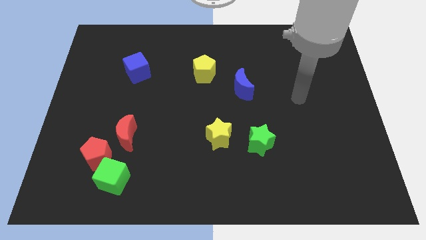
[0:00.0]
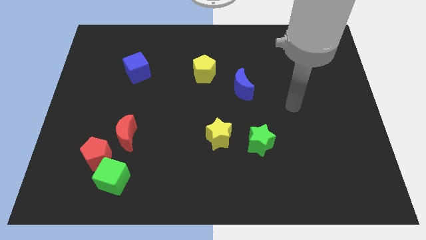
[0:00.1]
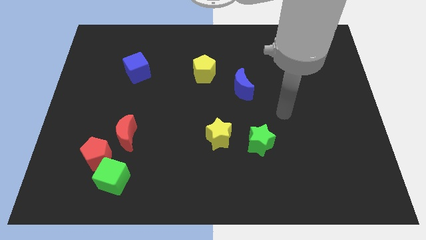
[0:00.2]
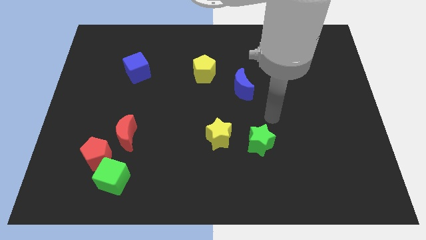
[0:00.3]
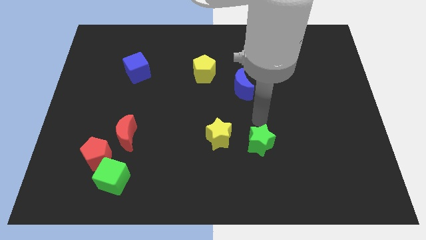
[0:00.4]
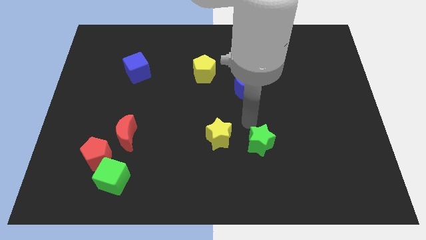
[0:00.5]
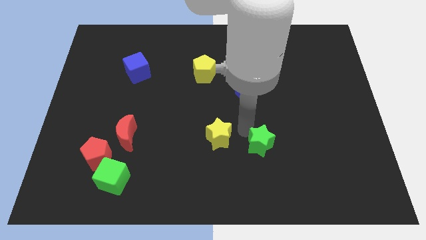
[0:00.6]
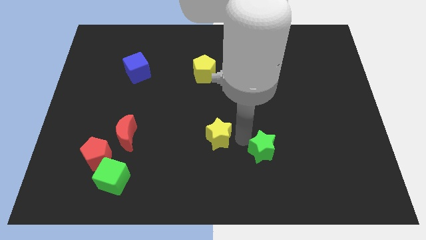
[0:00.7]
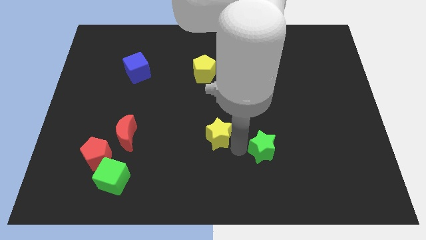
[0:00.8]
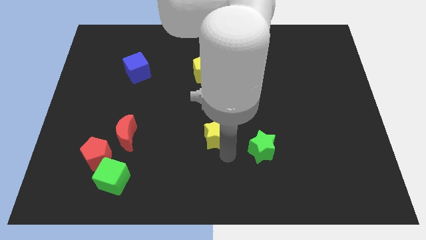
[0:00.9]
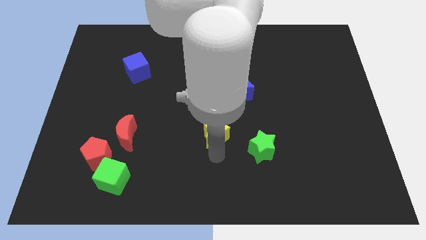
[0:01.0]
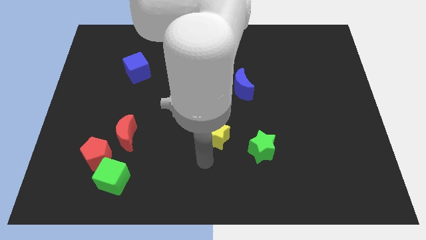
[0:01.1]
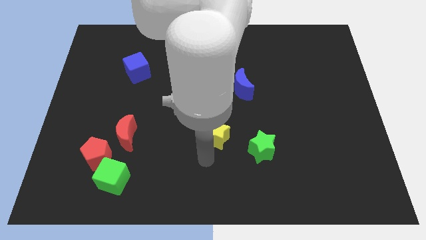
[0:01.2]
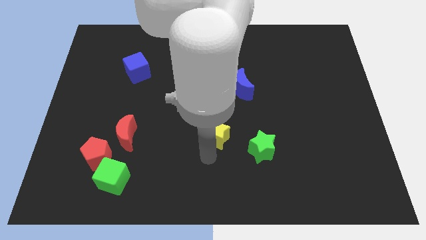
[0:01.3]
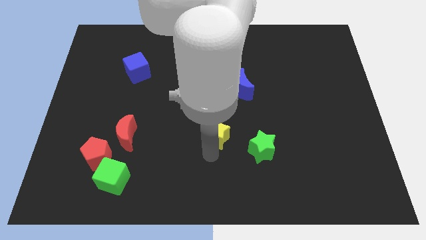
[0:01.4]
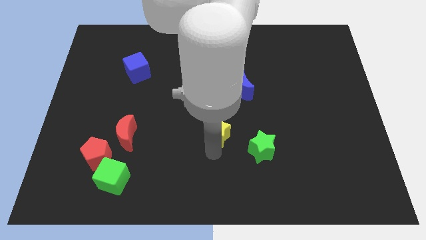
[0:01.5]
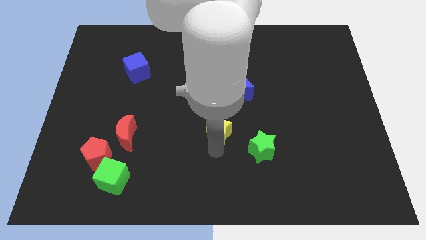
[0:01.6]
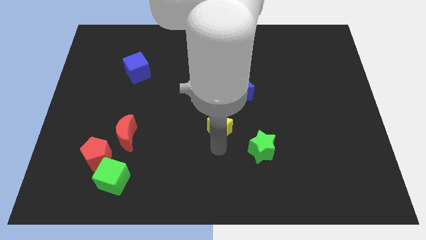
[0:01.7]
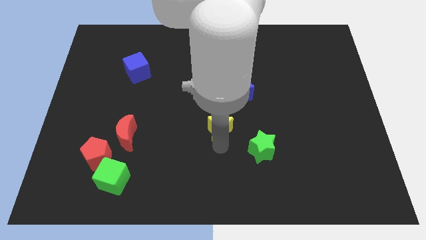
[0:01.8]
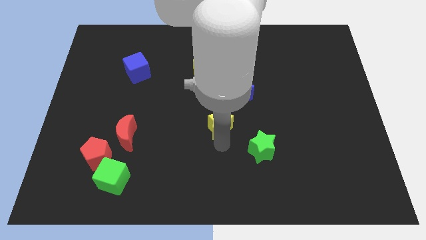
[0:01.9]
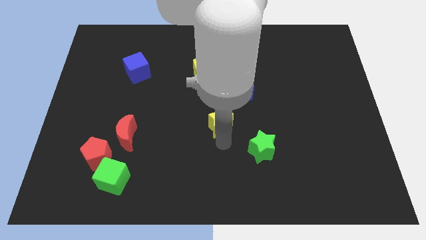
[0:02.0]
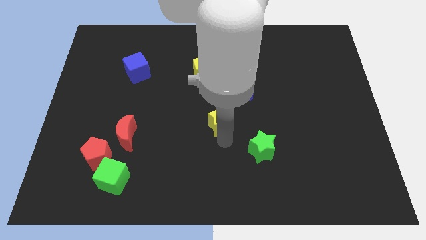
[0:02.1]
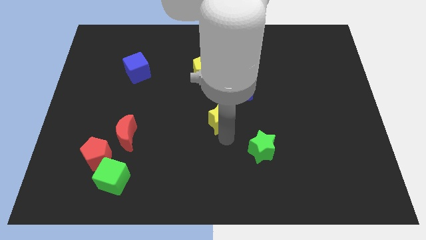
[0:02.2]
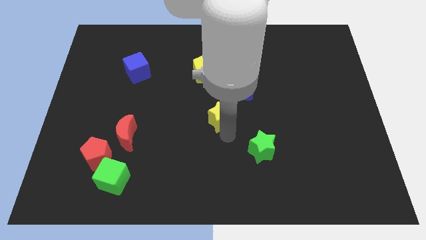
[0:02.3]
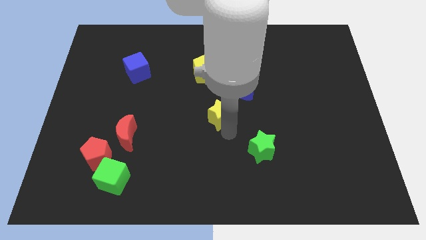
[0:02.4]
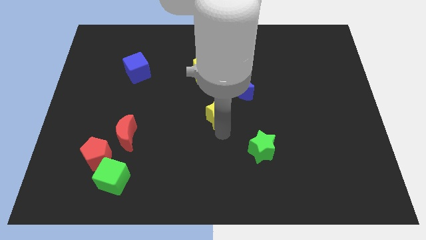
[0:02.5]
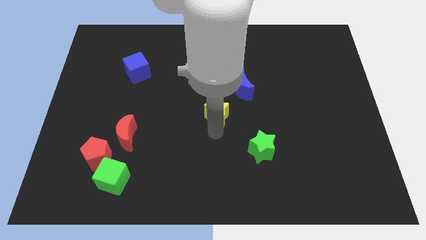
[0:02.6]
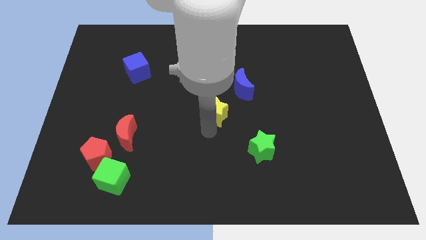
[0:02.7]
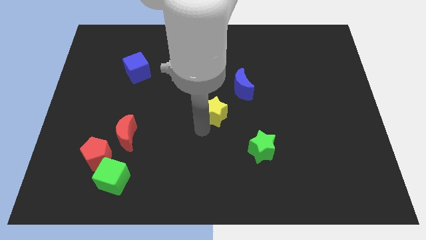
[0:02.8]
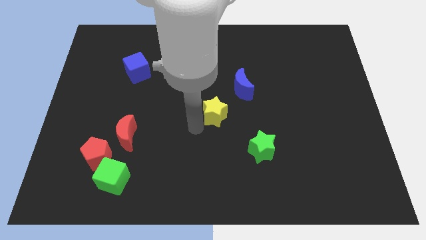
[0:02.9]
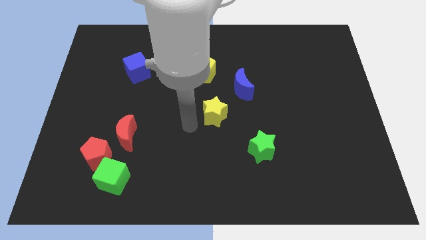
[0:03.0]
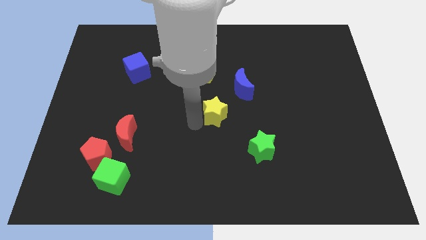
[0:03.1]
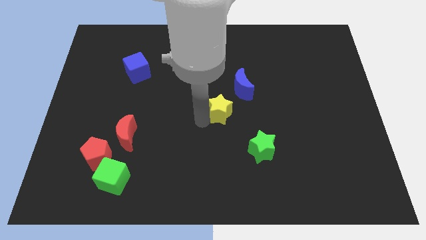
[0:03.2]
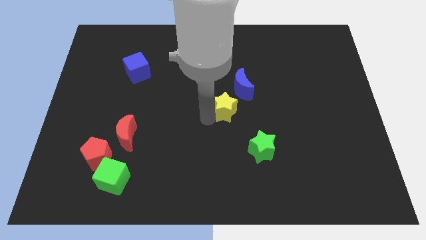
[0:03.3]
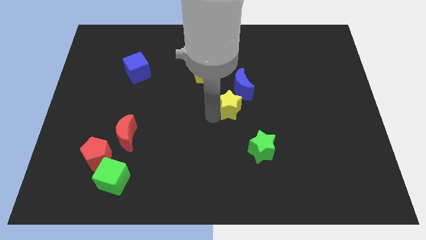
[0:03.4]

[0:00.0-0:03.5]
slightly move the yellow star upwards and to the right

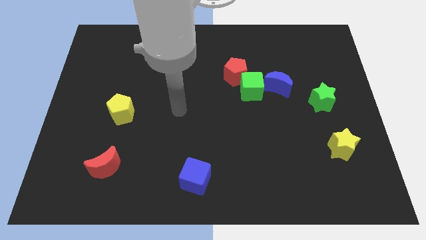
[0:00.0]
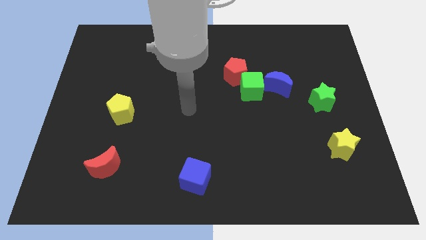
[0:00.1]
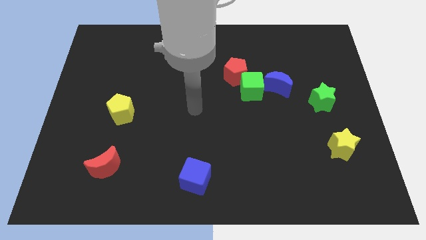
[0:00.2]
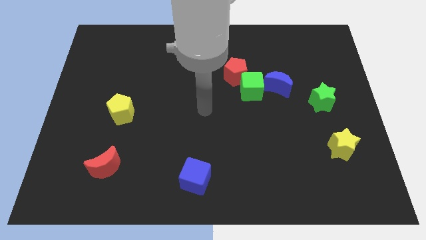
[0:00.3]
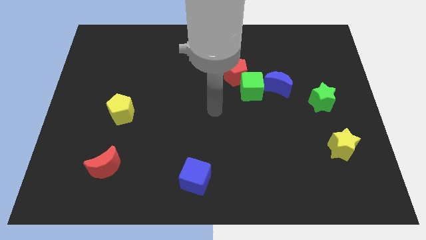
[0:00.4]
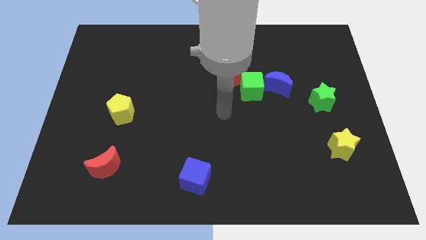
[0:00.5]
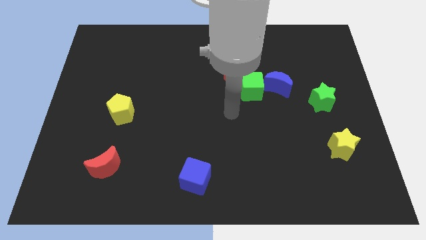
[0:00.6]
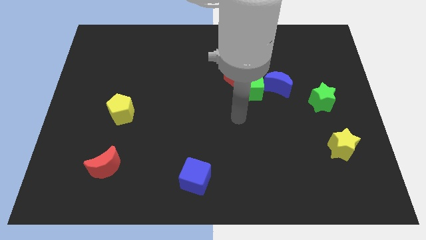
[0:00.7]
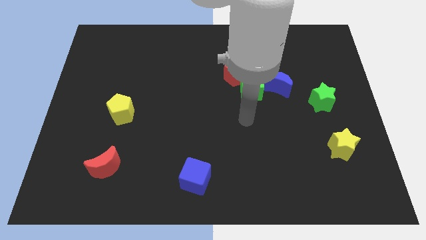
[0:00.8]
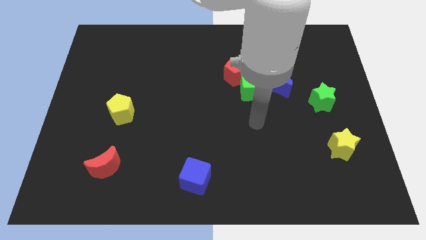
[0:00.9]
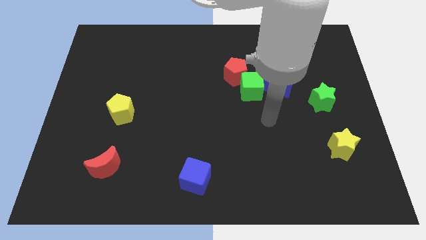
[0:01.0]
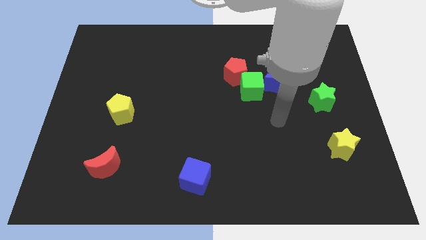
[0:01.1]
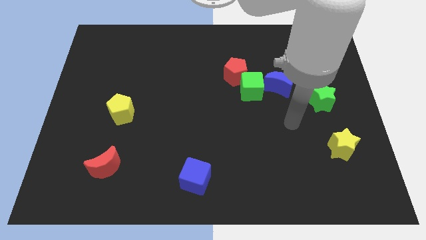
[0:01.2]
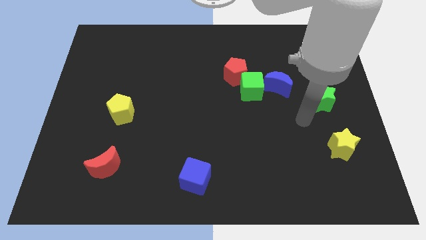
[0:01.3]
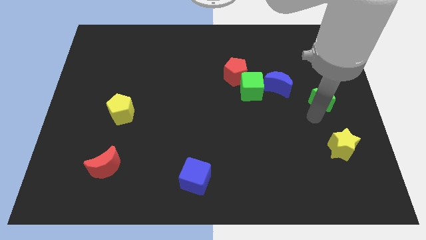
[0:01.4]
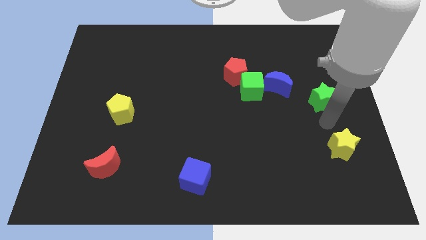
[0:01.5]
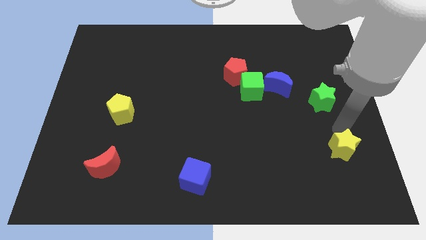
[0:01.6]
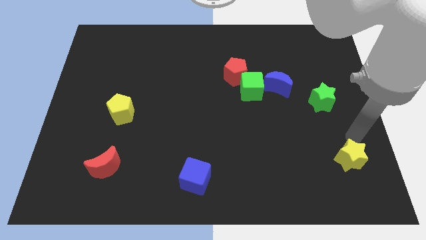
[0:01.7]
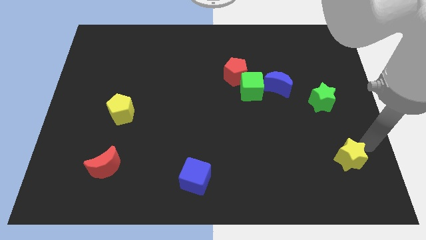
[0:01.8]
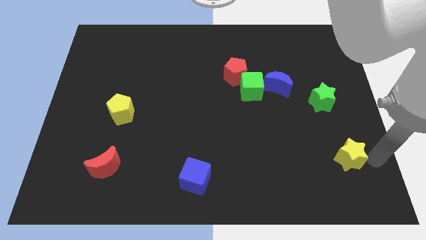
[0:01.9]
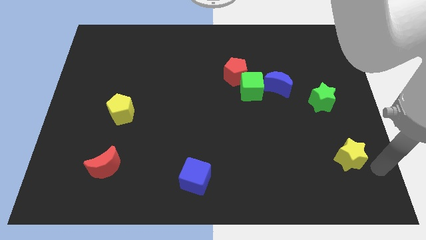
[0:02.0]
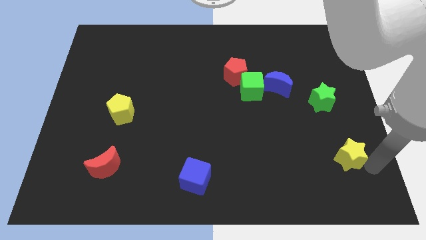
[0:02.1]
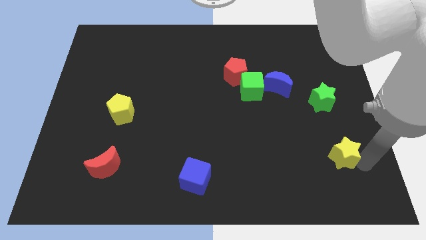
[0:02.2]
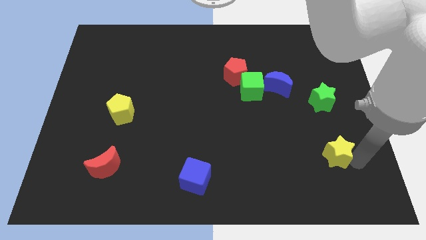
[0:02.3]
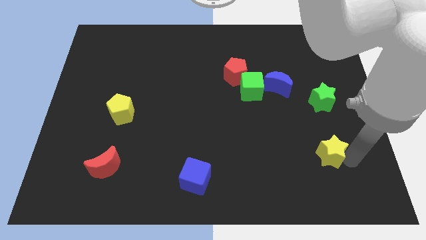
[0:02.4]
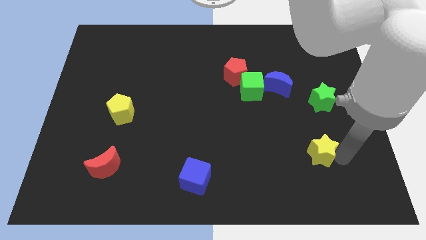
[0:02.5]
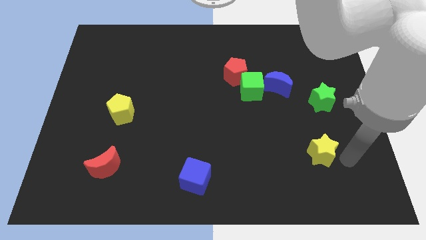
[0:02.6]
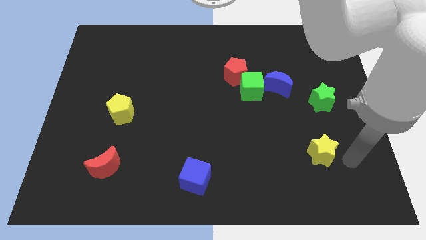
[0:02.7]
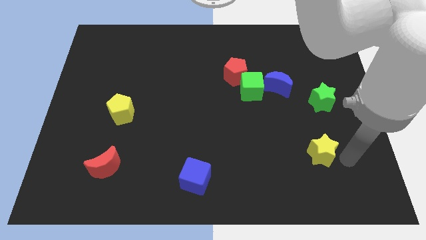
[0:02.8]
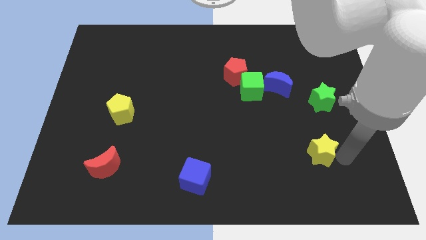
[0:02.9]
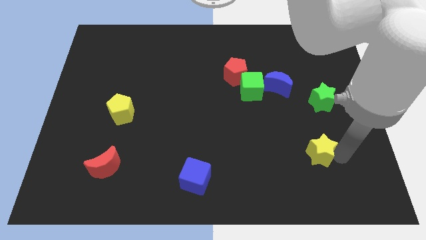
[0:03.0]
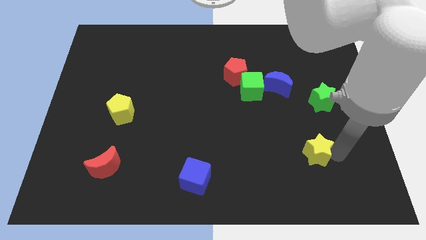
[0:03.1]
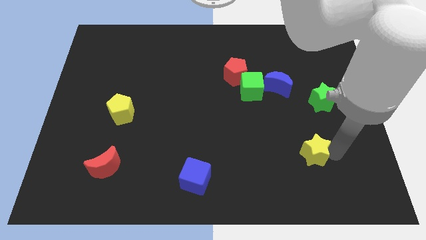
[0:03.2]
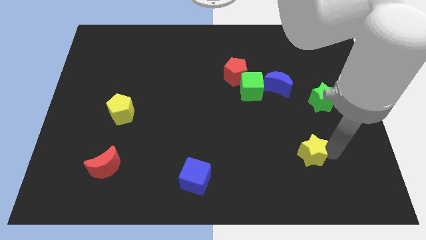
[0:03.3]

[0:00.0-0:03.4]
slide the yellow star to the left slightly

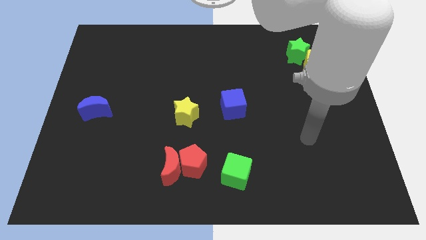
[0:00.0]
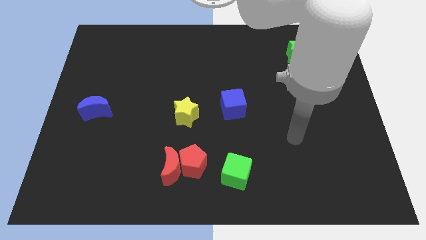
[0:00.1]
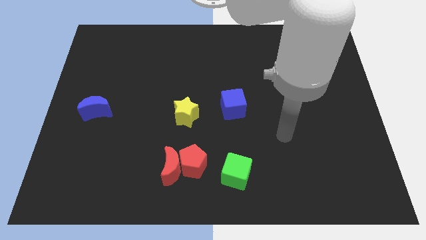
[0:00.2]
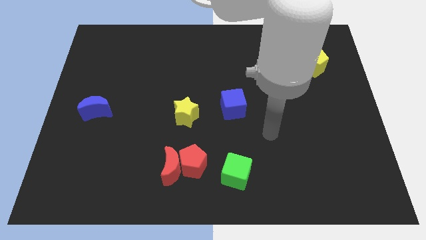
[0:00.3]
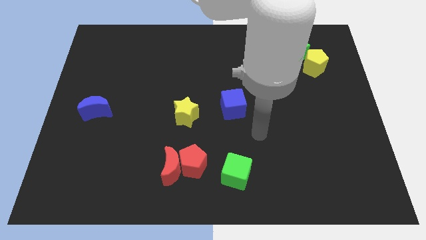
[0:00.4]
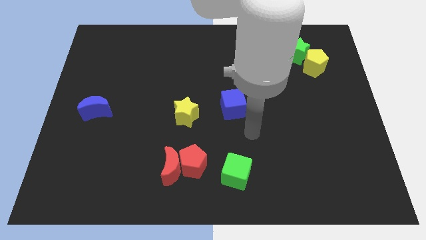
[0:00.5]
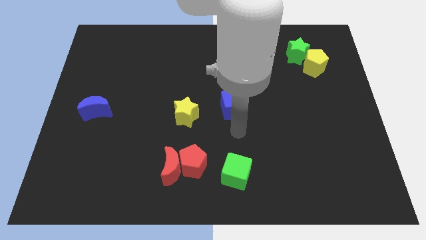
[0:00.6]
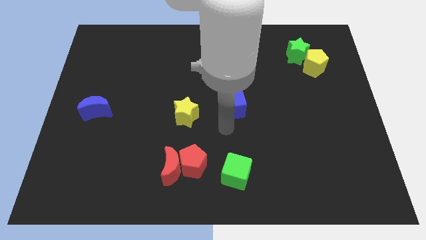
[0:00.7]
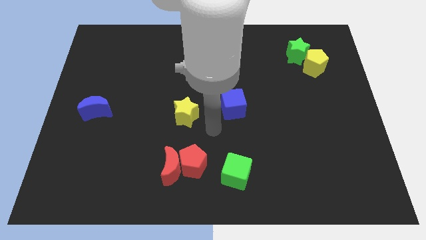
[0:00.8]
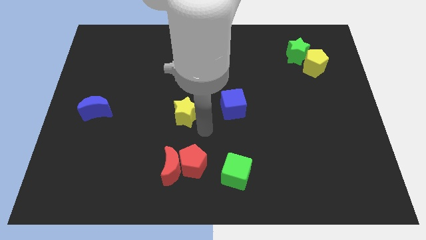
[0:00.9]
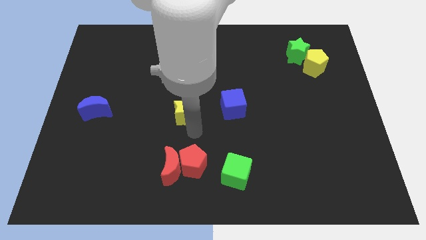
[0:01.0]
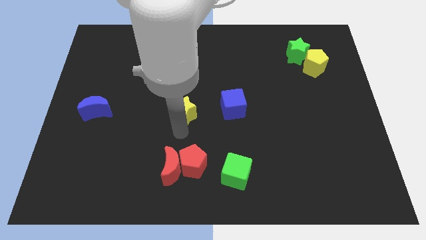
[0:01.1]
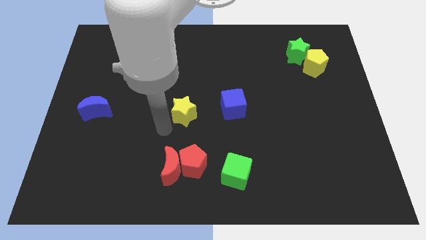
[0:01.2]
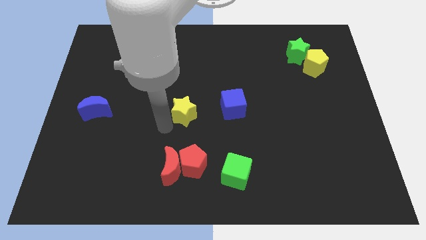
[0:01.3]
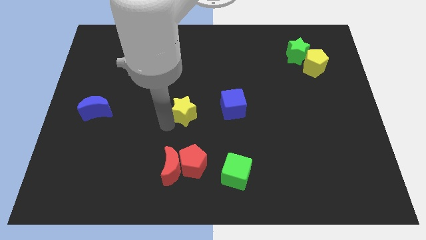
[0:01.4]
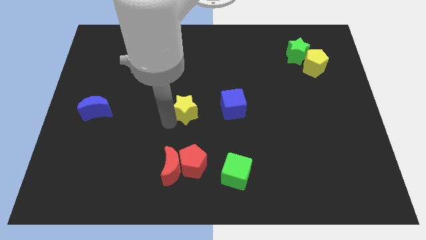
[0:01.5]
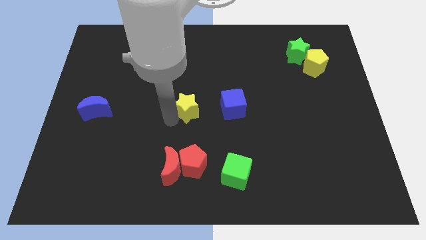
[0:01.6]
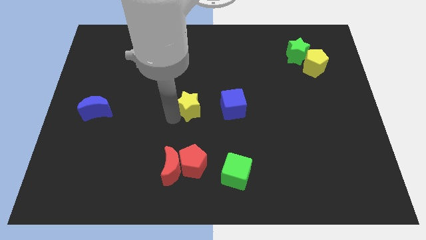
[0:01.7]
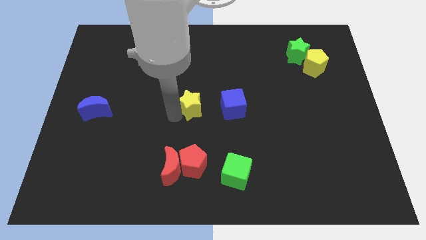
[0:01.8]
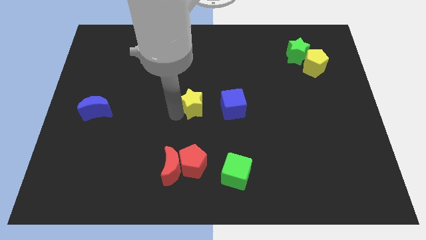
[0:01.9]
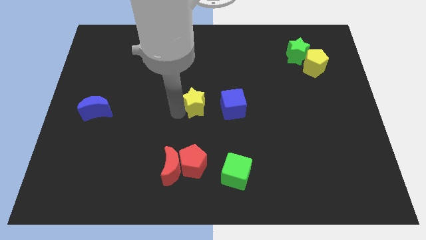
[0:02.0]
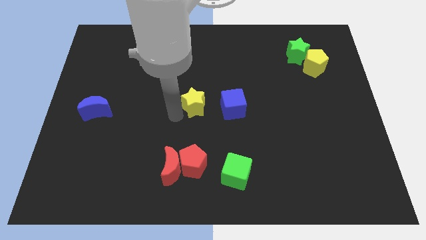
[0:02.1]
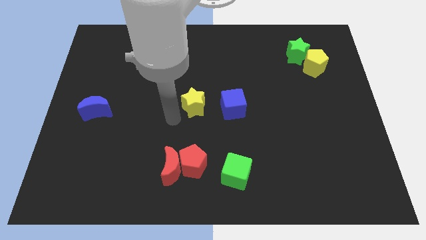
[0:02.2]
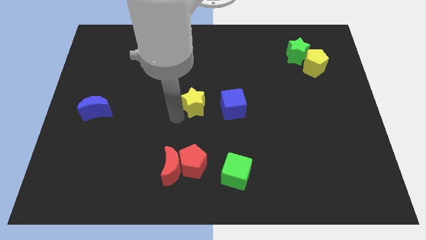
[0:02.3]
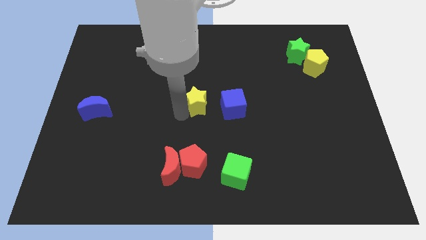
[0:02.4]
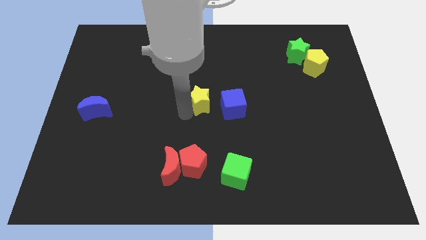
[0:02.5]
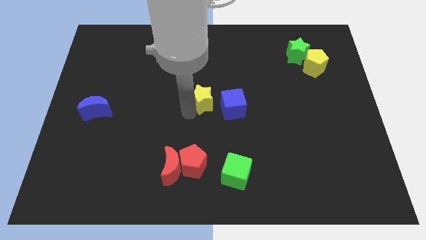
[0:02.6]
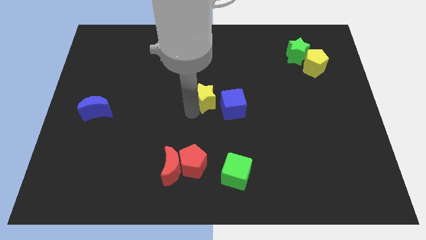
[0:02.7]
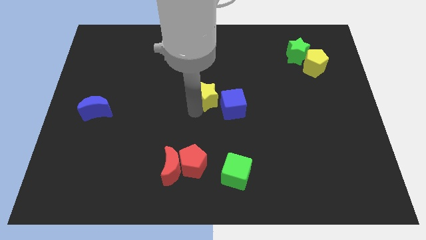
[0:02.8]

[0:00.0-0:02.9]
slightly slide the yellow star upwards and right
